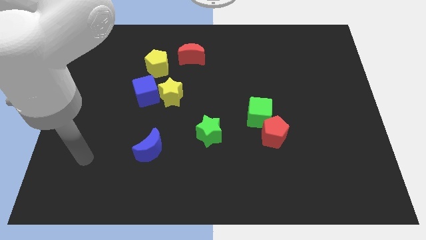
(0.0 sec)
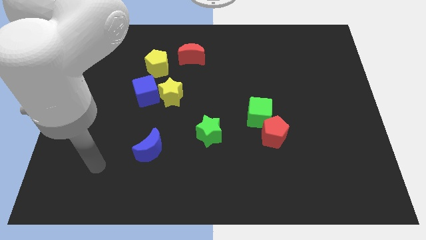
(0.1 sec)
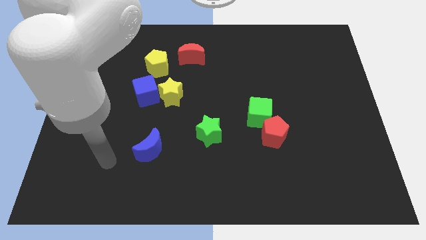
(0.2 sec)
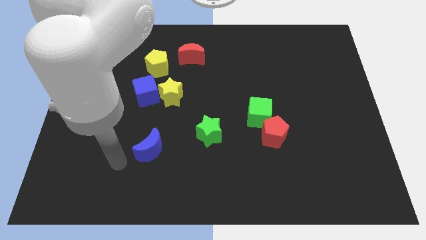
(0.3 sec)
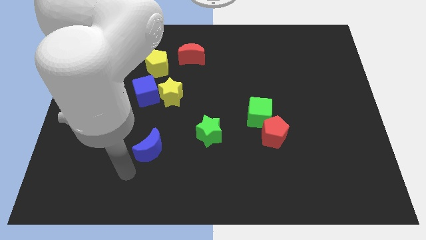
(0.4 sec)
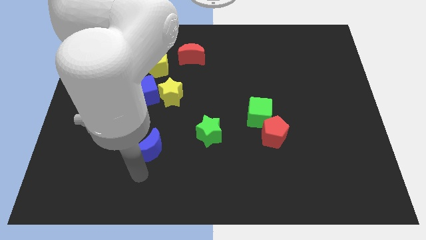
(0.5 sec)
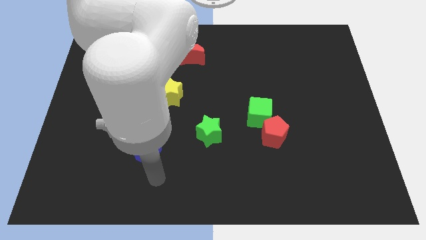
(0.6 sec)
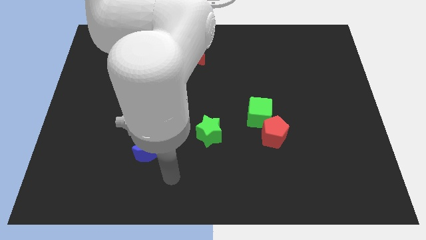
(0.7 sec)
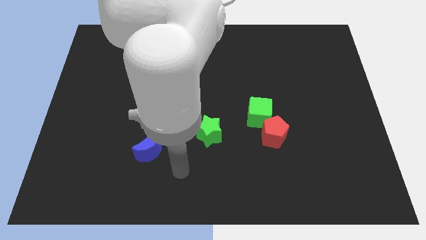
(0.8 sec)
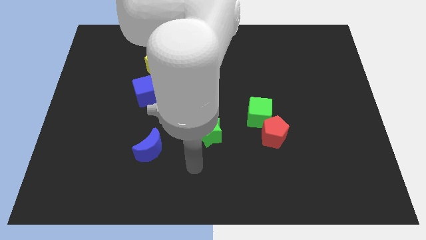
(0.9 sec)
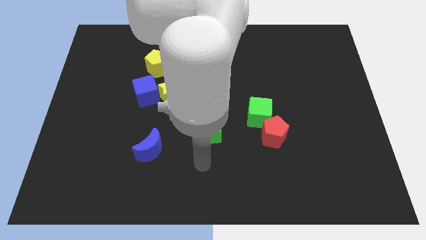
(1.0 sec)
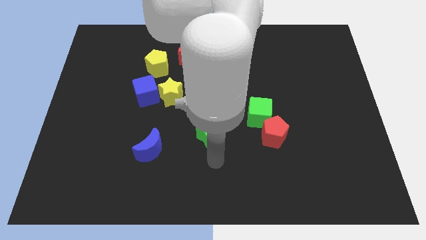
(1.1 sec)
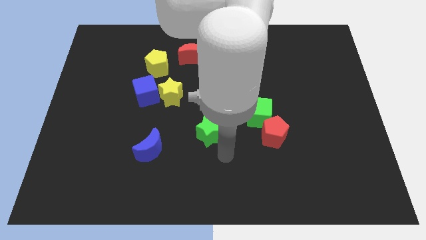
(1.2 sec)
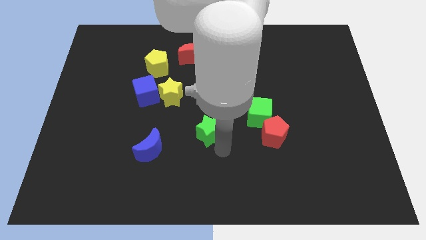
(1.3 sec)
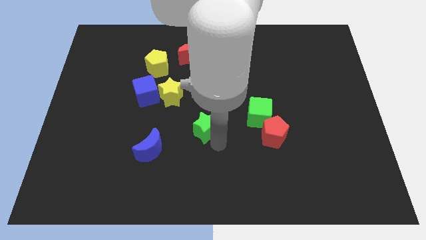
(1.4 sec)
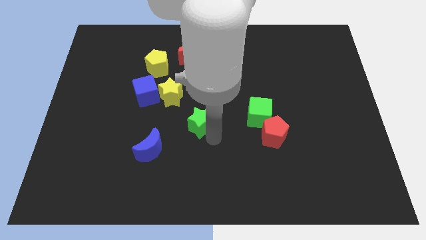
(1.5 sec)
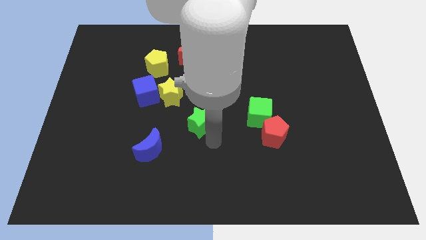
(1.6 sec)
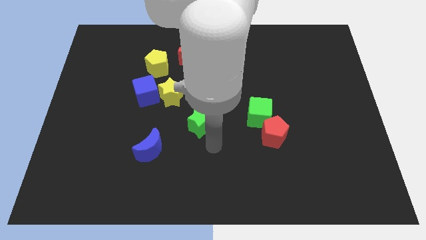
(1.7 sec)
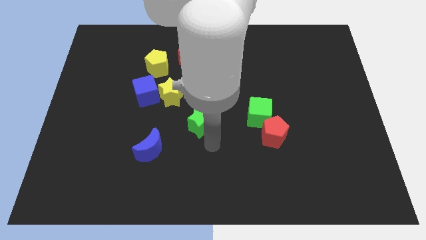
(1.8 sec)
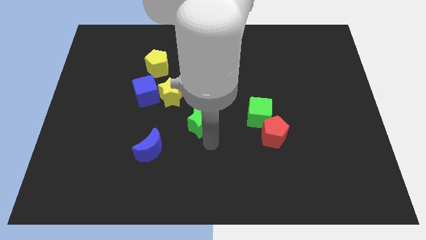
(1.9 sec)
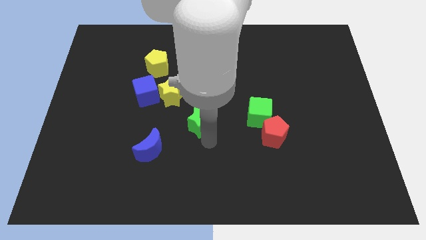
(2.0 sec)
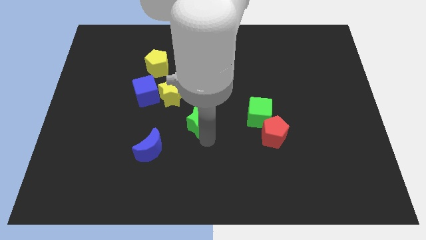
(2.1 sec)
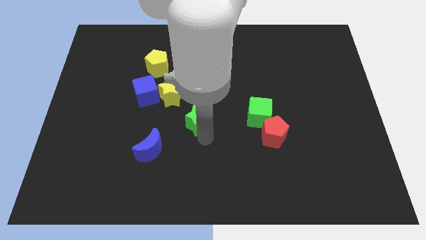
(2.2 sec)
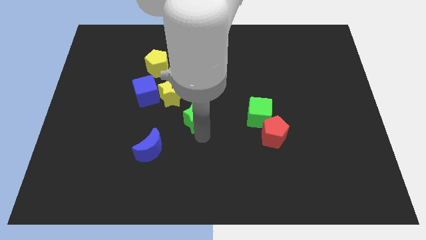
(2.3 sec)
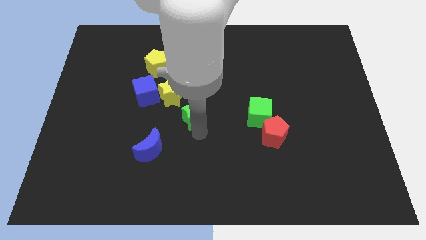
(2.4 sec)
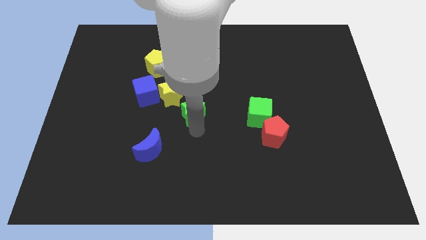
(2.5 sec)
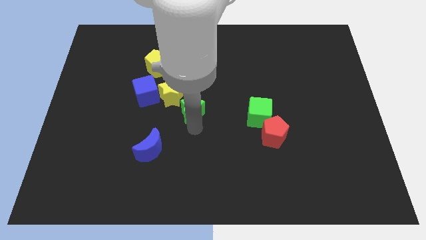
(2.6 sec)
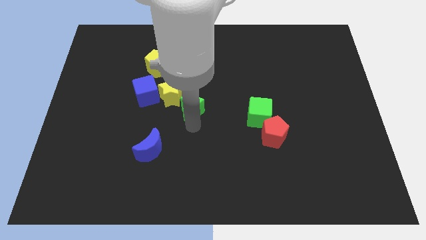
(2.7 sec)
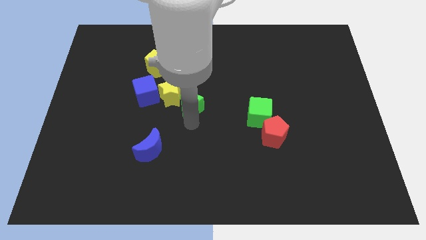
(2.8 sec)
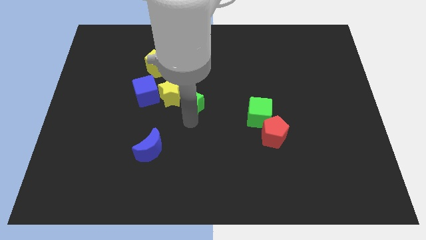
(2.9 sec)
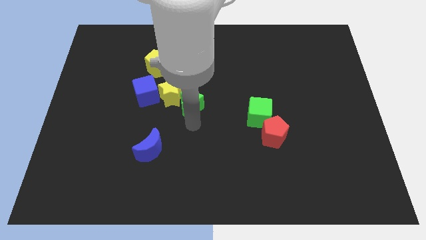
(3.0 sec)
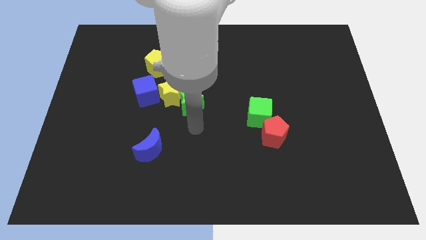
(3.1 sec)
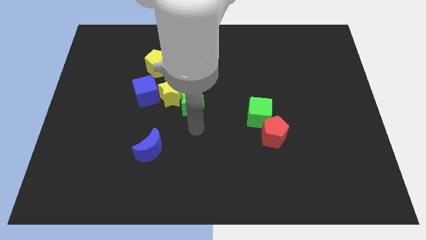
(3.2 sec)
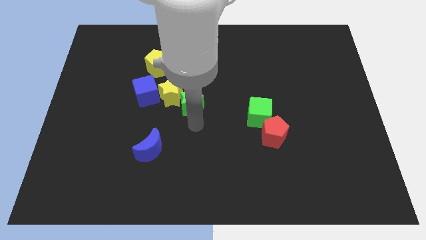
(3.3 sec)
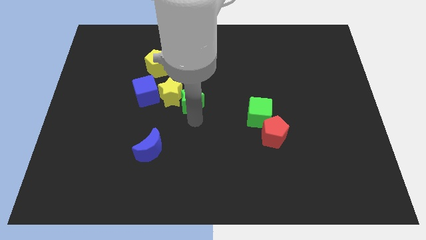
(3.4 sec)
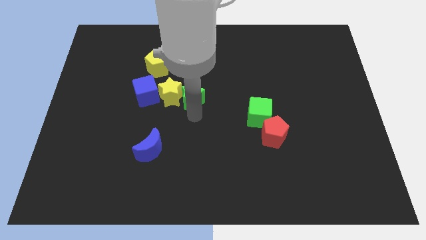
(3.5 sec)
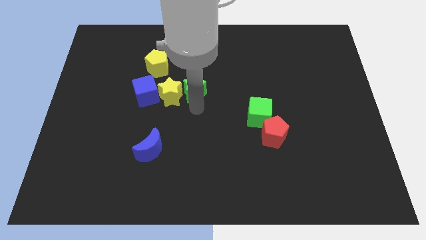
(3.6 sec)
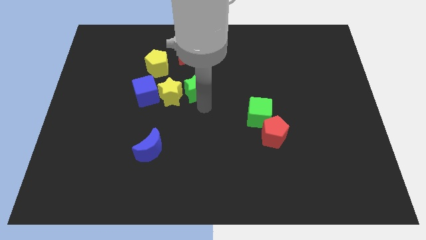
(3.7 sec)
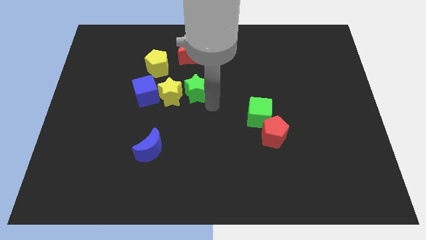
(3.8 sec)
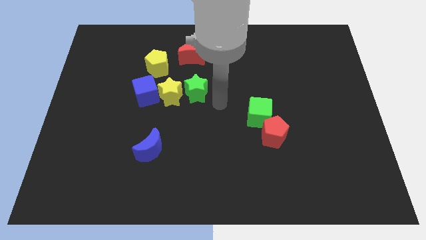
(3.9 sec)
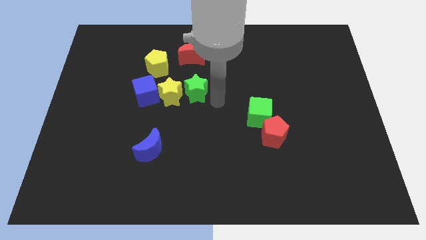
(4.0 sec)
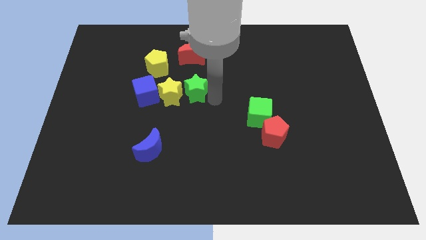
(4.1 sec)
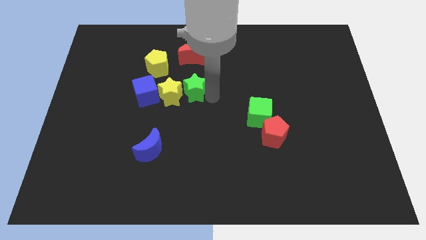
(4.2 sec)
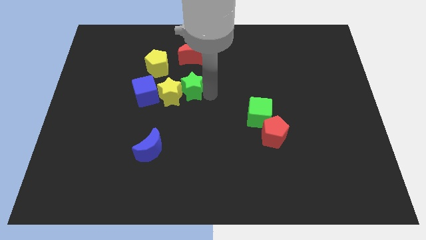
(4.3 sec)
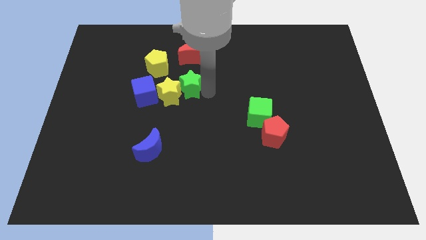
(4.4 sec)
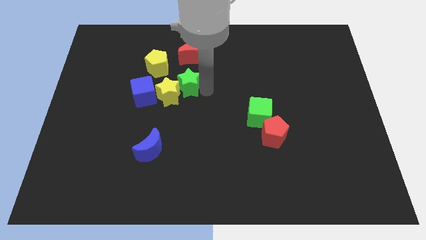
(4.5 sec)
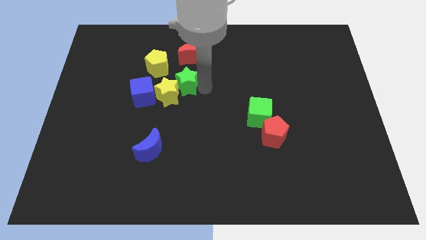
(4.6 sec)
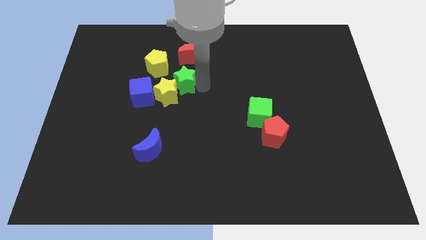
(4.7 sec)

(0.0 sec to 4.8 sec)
slide the green star to the top right of the blue cube

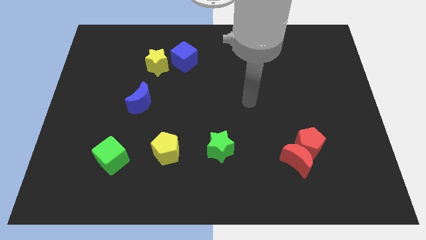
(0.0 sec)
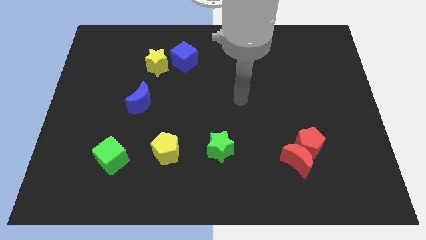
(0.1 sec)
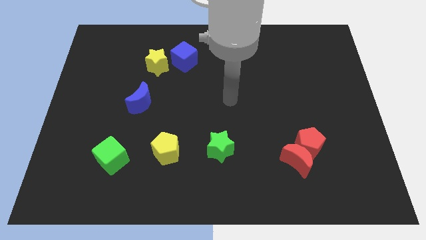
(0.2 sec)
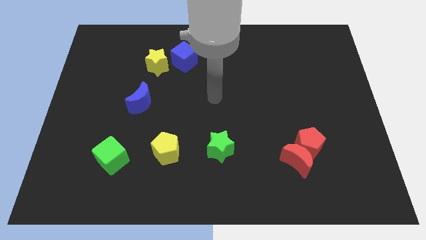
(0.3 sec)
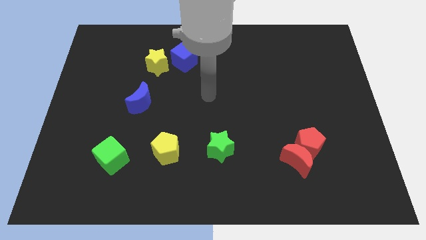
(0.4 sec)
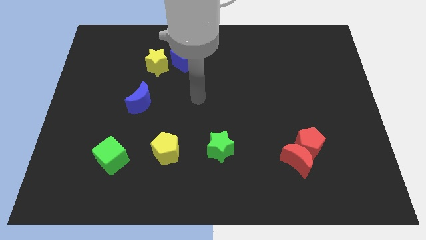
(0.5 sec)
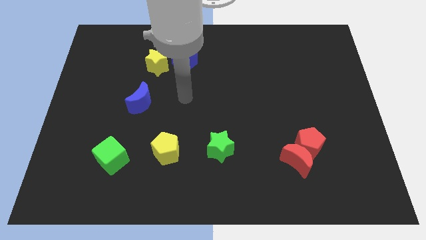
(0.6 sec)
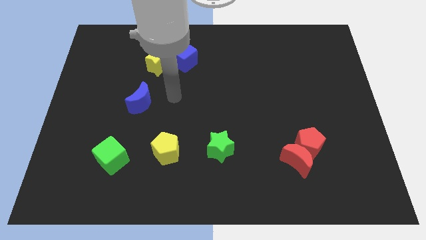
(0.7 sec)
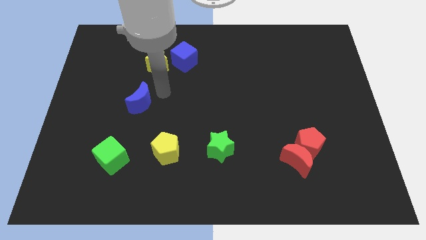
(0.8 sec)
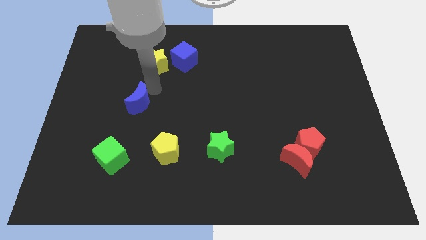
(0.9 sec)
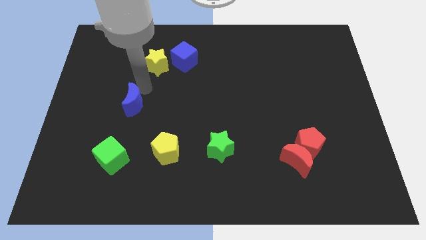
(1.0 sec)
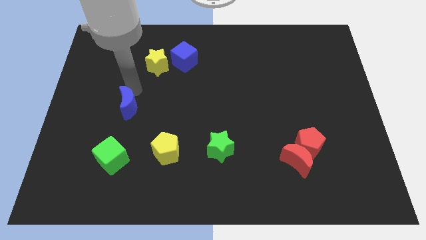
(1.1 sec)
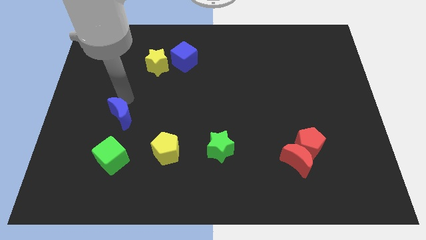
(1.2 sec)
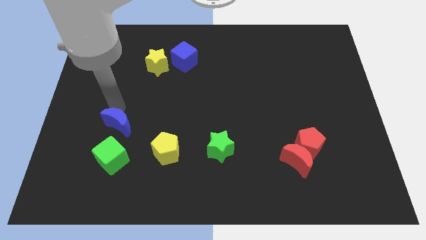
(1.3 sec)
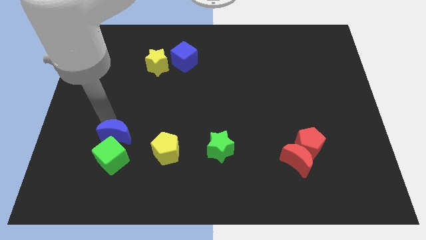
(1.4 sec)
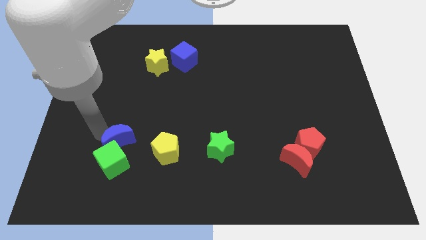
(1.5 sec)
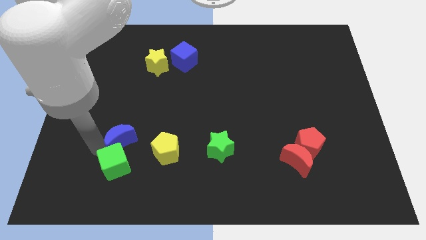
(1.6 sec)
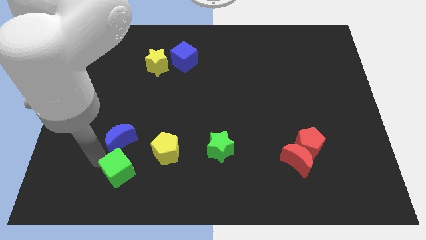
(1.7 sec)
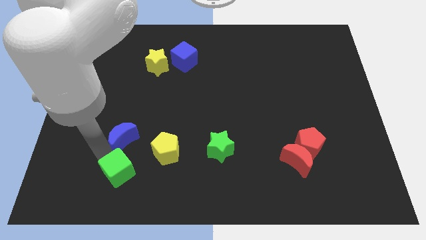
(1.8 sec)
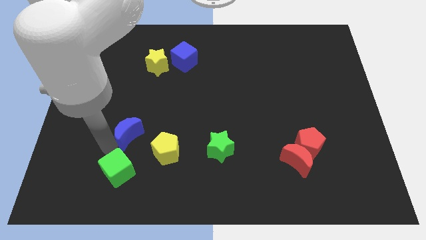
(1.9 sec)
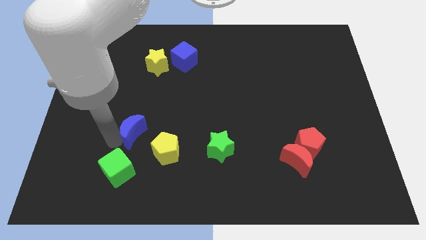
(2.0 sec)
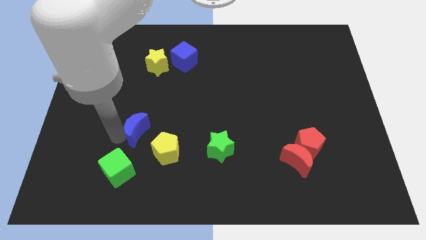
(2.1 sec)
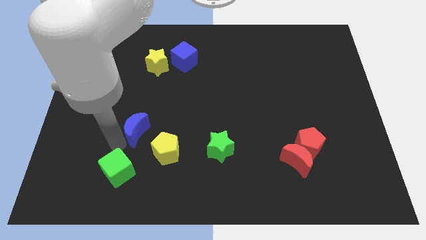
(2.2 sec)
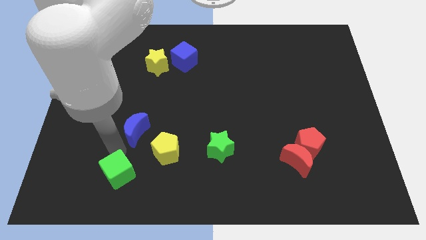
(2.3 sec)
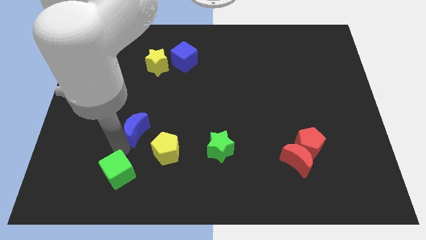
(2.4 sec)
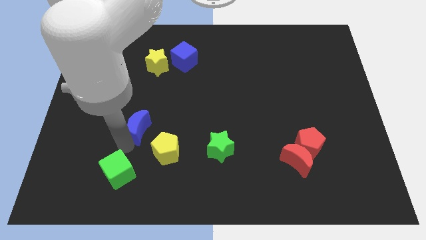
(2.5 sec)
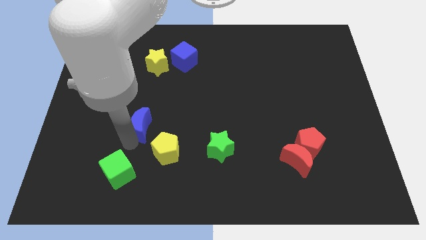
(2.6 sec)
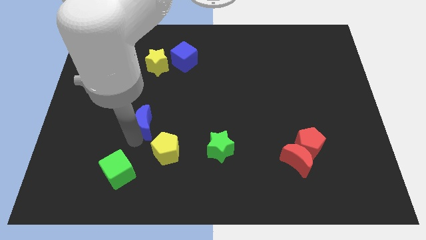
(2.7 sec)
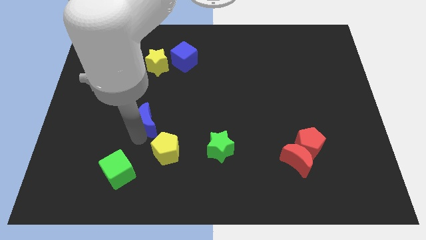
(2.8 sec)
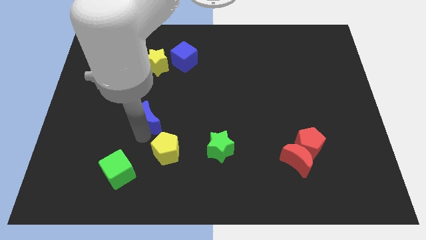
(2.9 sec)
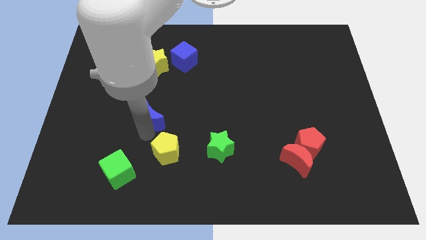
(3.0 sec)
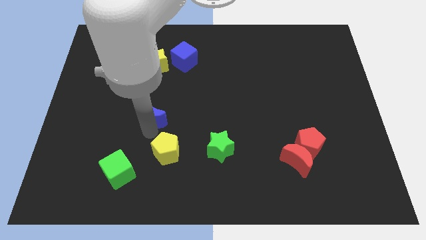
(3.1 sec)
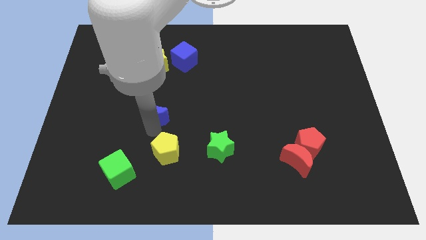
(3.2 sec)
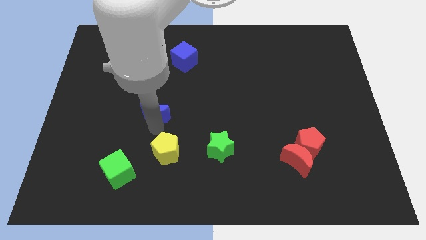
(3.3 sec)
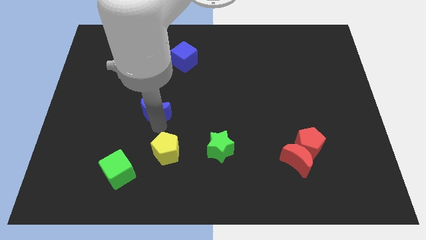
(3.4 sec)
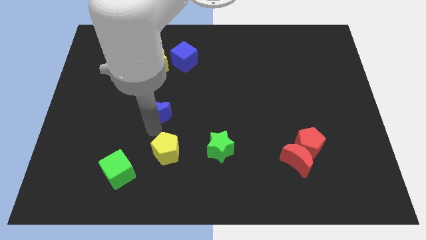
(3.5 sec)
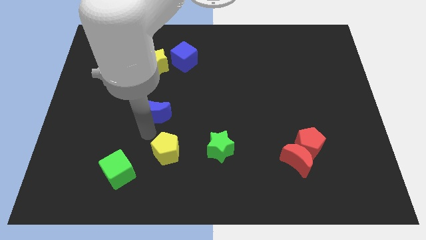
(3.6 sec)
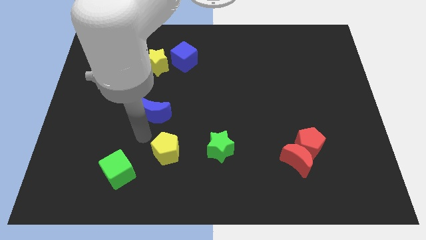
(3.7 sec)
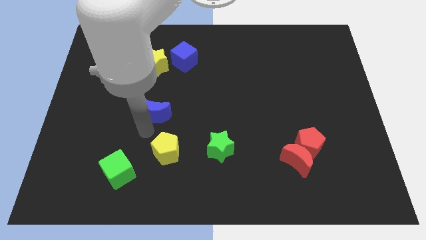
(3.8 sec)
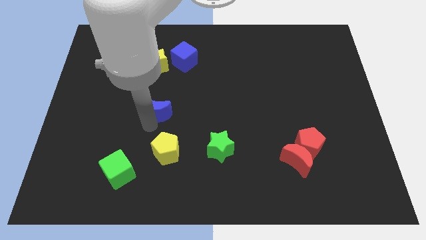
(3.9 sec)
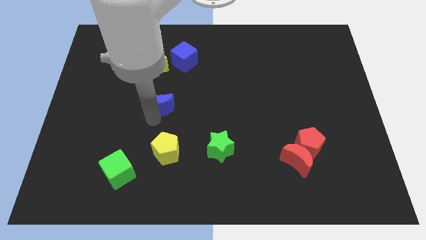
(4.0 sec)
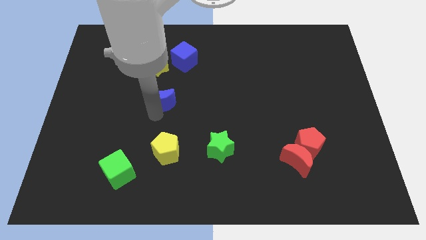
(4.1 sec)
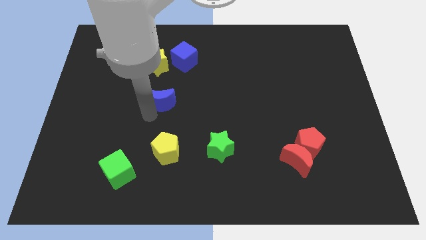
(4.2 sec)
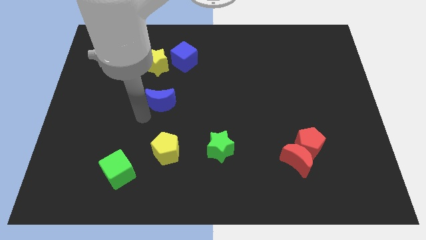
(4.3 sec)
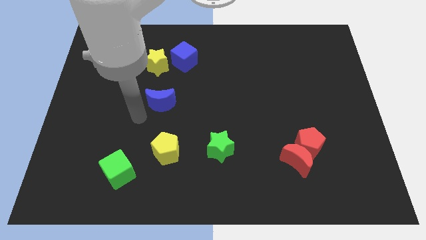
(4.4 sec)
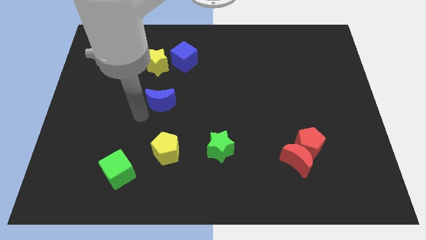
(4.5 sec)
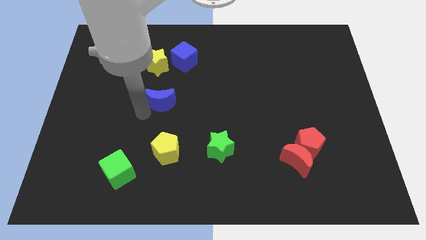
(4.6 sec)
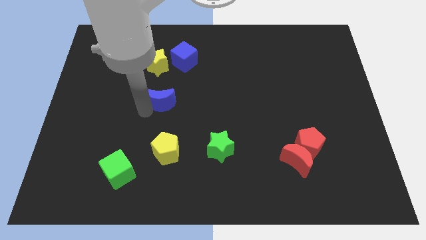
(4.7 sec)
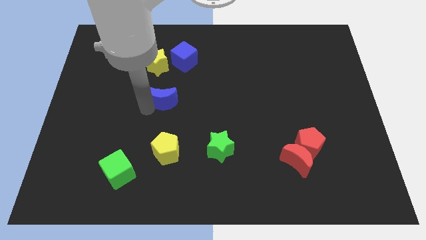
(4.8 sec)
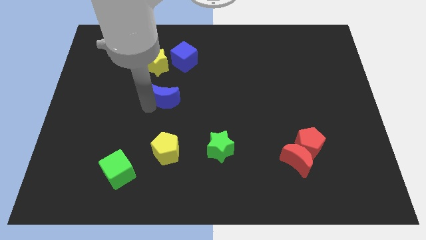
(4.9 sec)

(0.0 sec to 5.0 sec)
put the blue moon below the blue cube
